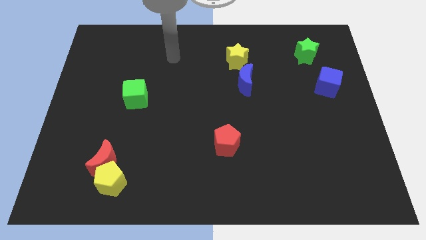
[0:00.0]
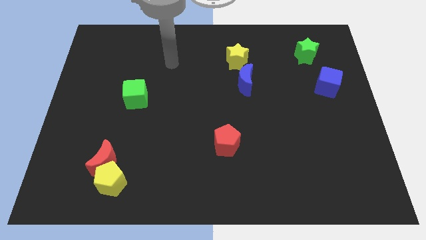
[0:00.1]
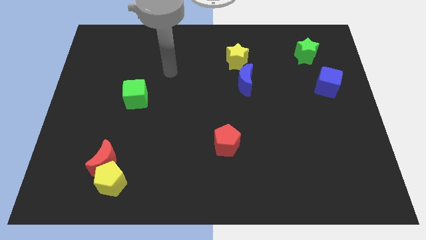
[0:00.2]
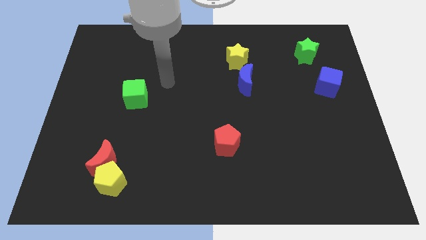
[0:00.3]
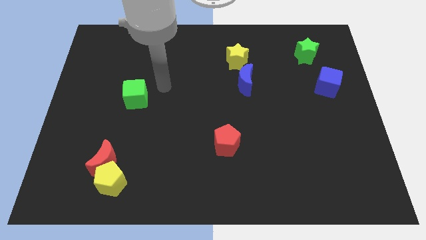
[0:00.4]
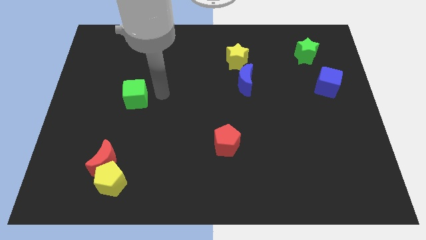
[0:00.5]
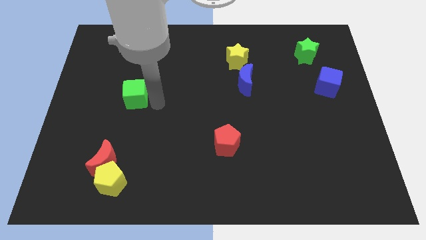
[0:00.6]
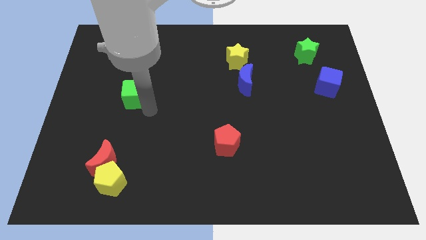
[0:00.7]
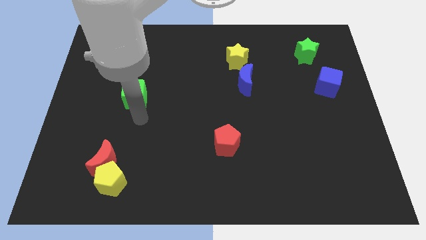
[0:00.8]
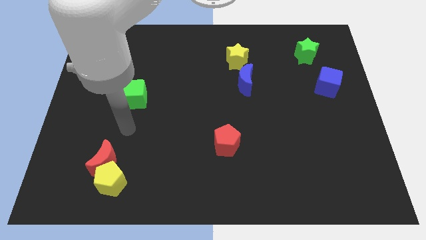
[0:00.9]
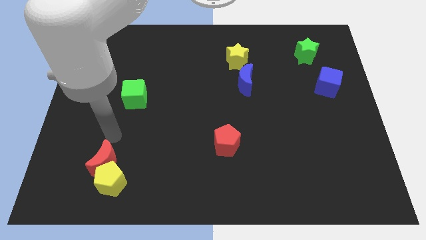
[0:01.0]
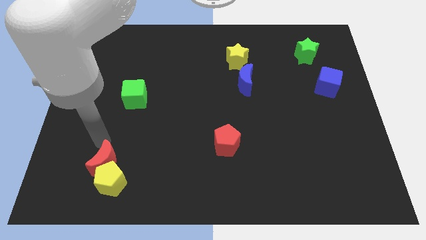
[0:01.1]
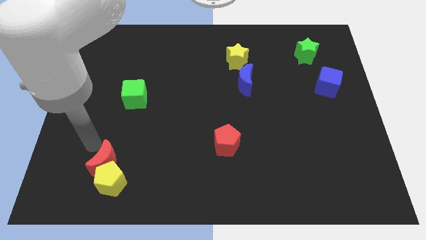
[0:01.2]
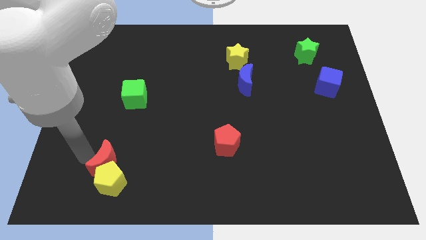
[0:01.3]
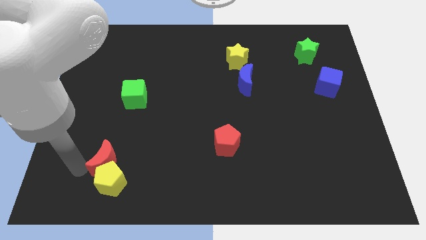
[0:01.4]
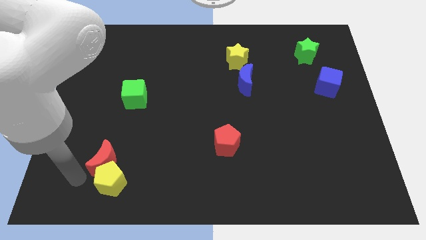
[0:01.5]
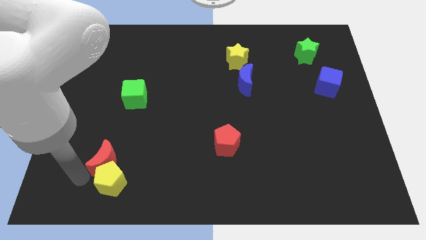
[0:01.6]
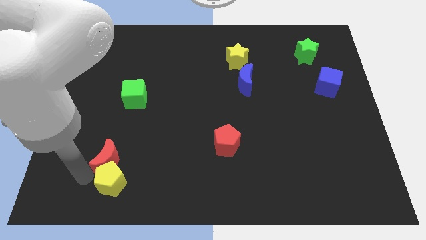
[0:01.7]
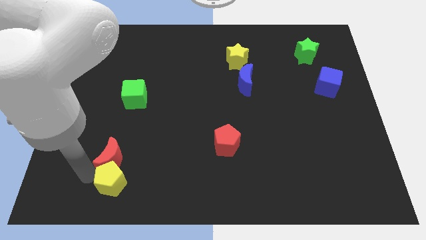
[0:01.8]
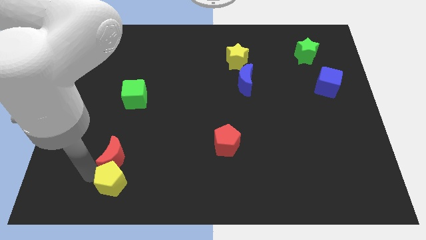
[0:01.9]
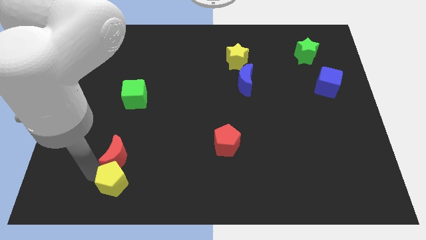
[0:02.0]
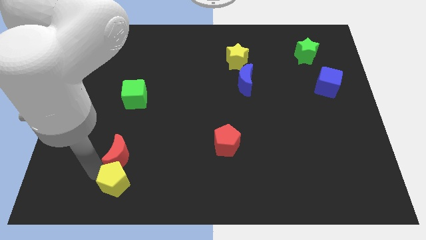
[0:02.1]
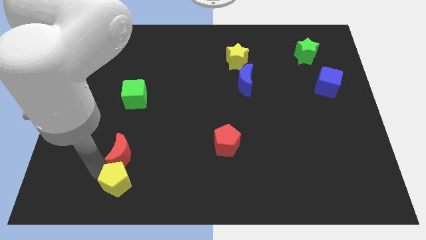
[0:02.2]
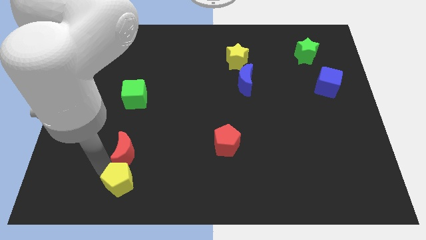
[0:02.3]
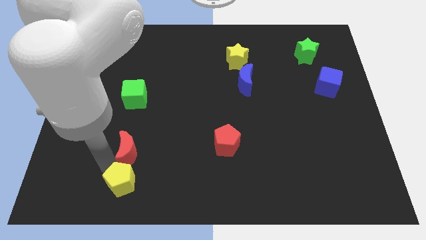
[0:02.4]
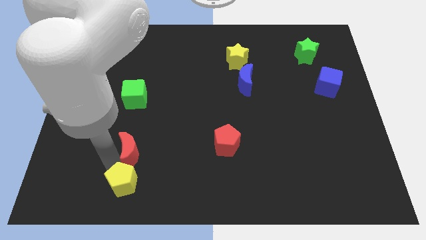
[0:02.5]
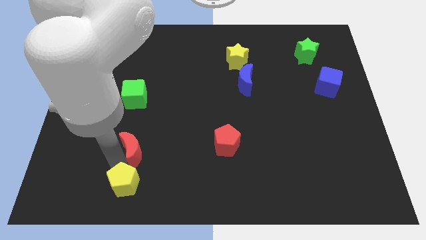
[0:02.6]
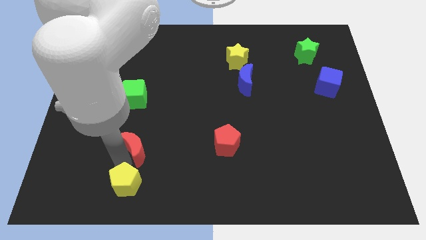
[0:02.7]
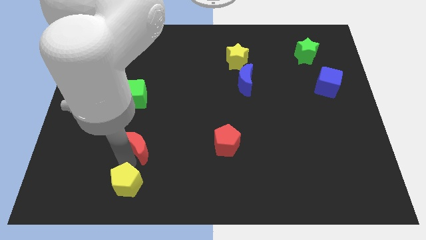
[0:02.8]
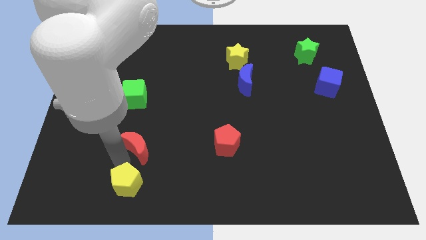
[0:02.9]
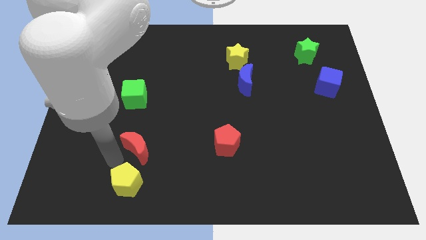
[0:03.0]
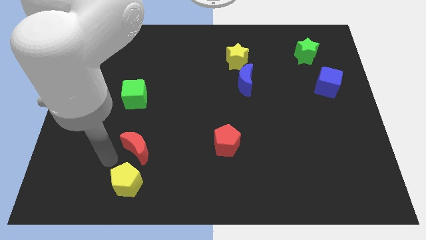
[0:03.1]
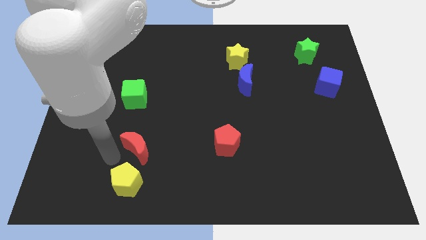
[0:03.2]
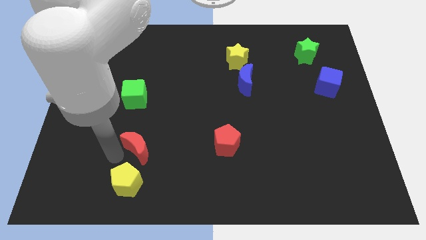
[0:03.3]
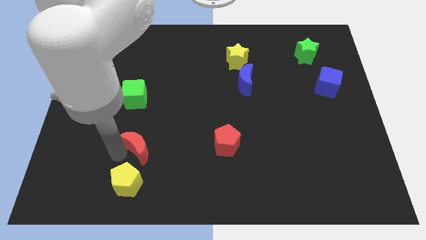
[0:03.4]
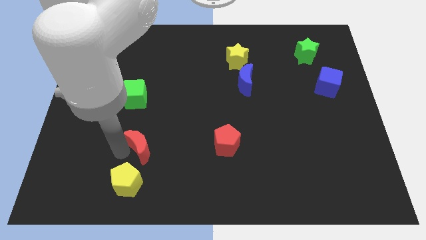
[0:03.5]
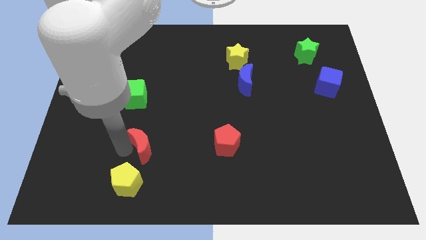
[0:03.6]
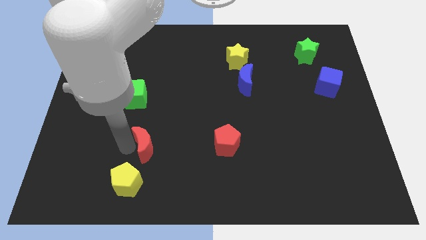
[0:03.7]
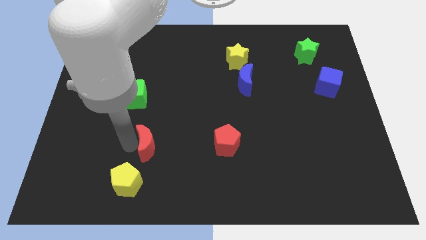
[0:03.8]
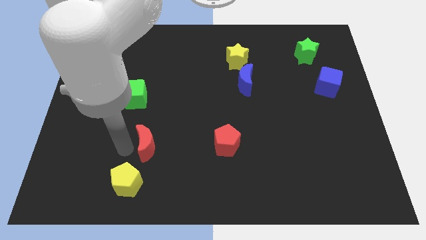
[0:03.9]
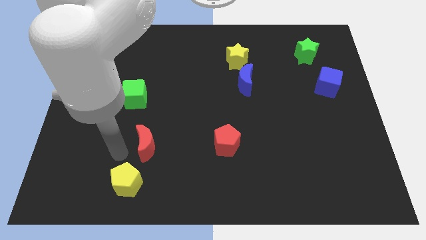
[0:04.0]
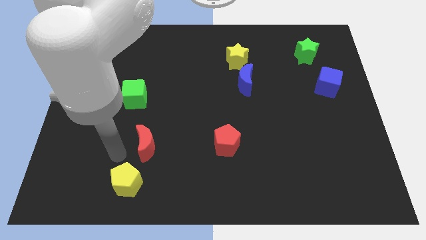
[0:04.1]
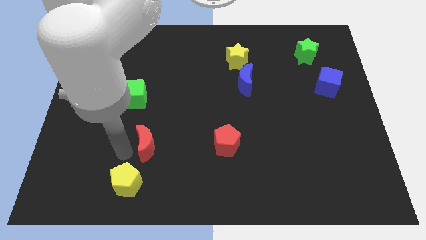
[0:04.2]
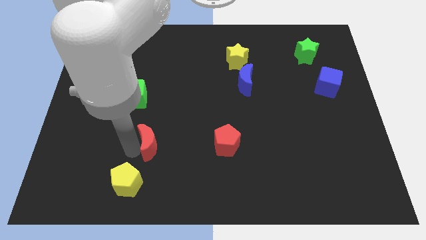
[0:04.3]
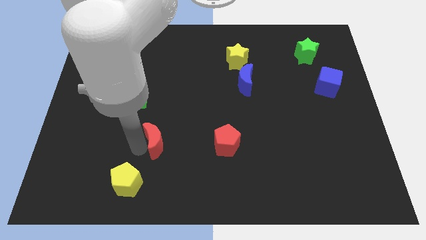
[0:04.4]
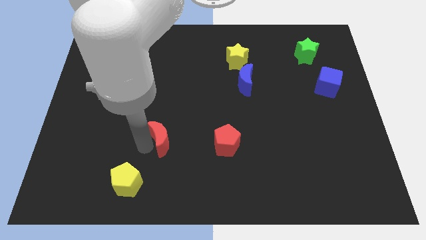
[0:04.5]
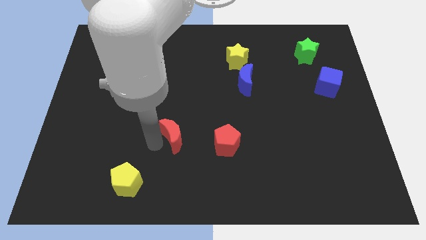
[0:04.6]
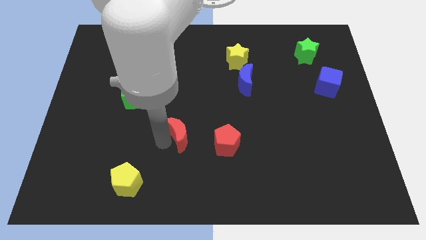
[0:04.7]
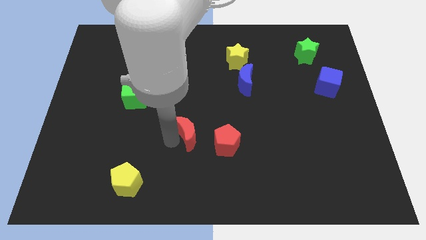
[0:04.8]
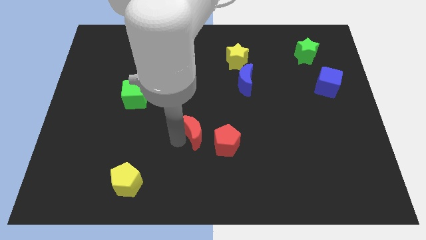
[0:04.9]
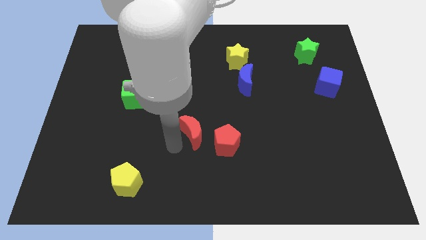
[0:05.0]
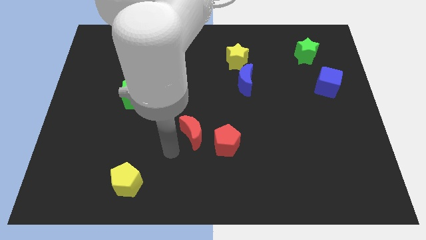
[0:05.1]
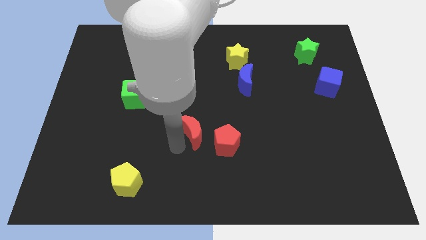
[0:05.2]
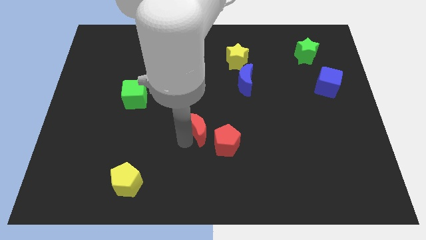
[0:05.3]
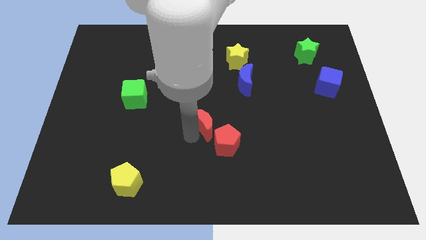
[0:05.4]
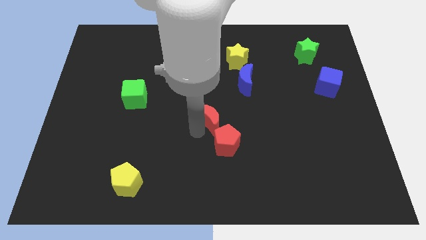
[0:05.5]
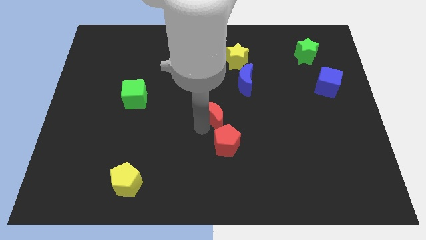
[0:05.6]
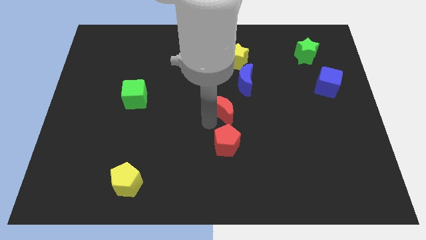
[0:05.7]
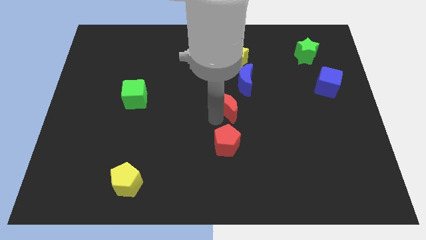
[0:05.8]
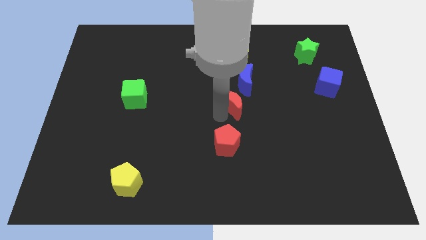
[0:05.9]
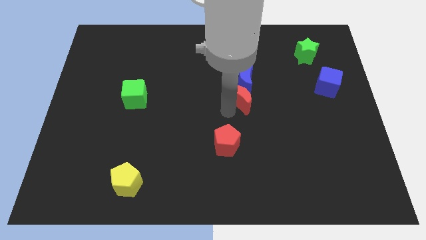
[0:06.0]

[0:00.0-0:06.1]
slide the red moon next to the blue moon

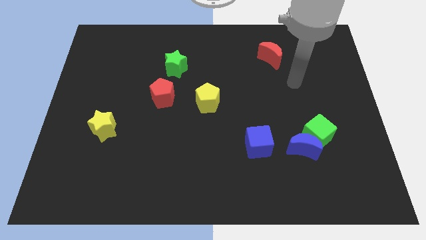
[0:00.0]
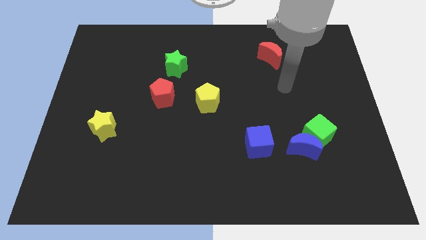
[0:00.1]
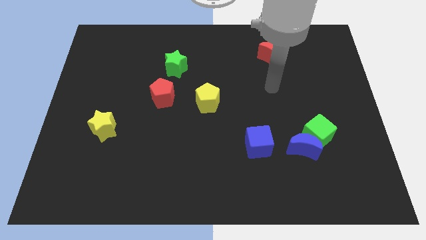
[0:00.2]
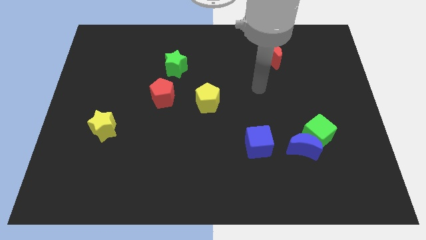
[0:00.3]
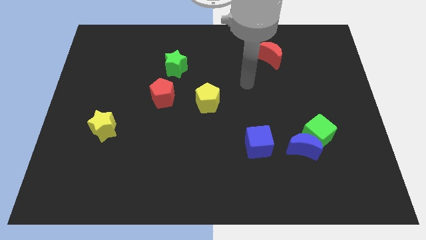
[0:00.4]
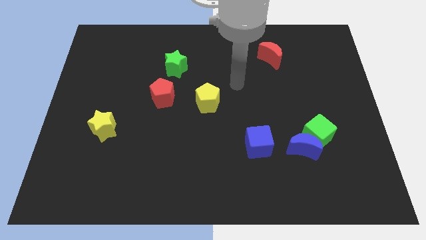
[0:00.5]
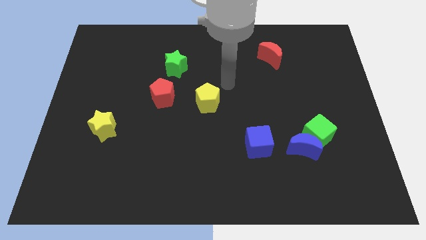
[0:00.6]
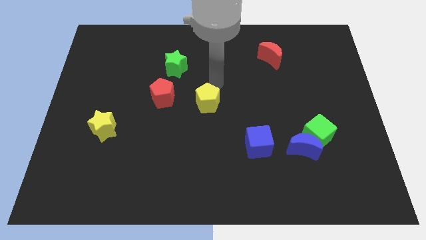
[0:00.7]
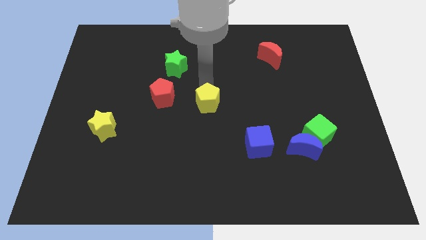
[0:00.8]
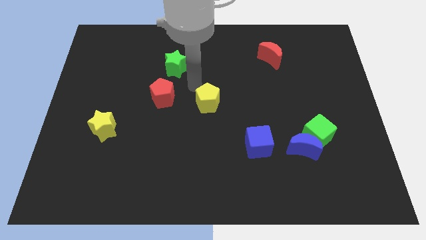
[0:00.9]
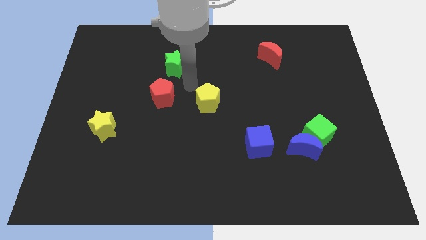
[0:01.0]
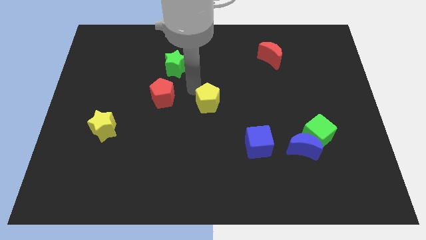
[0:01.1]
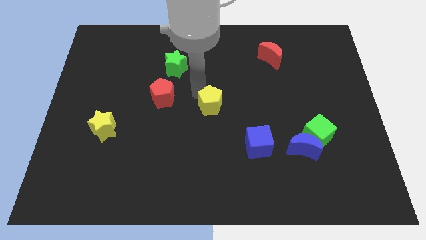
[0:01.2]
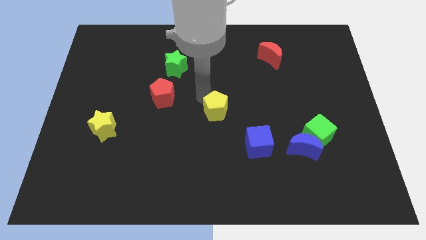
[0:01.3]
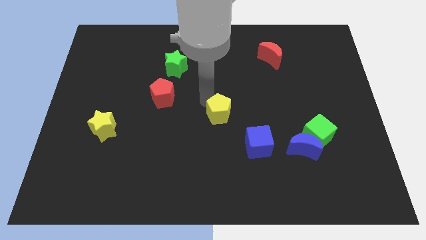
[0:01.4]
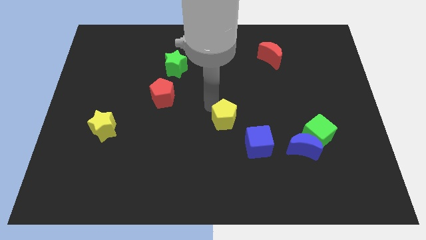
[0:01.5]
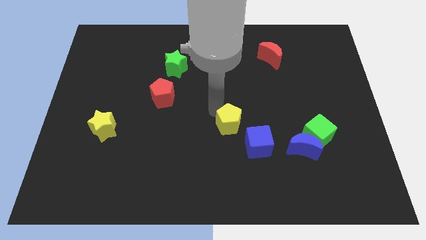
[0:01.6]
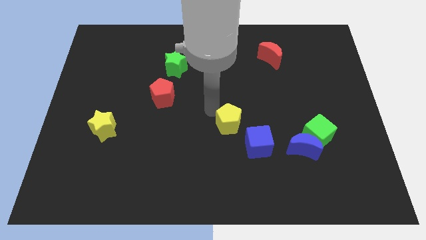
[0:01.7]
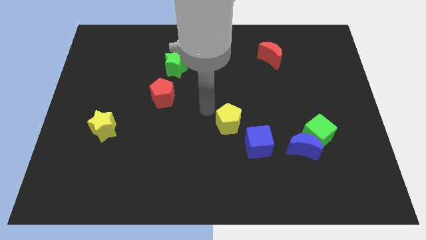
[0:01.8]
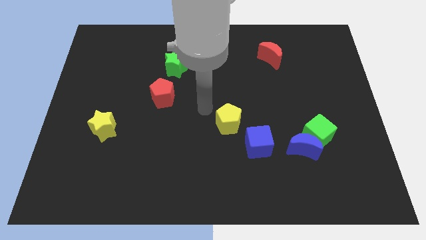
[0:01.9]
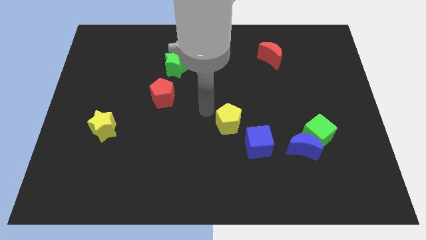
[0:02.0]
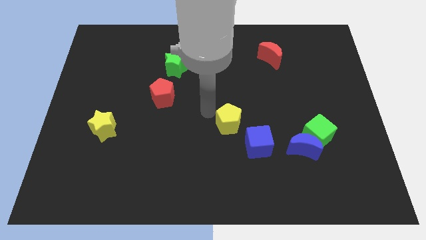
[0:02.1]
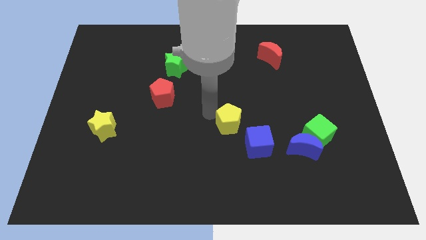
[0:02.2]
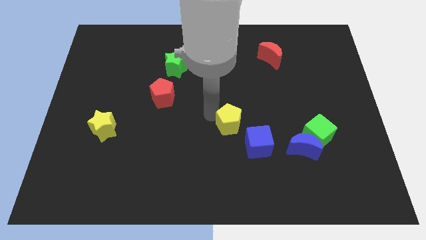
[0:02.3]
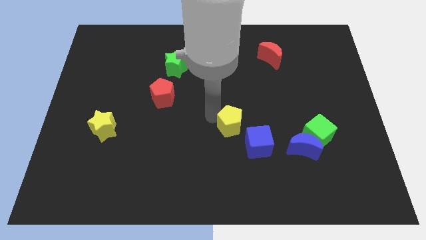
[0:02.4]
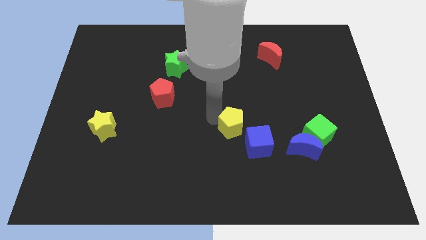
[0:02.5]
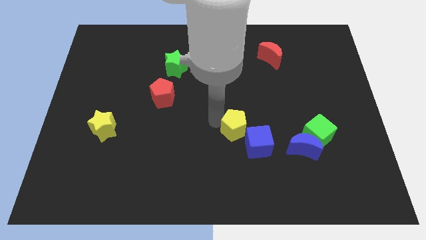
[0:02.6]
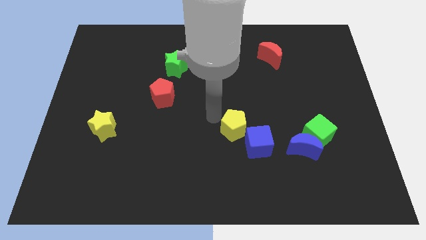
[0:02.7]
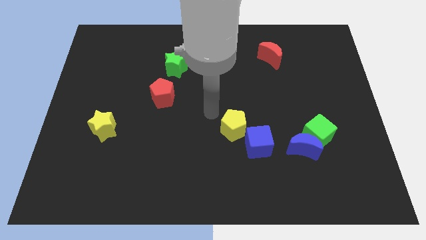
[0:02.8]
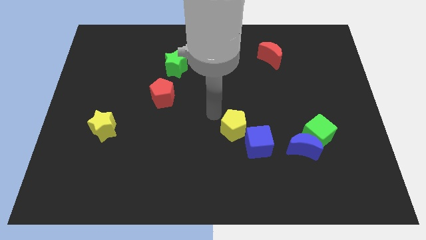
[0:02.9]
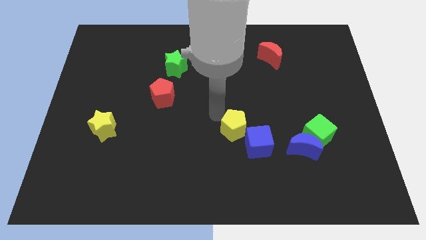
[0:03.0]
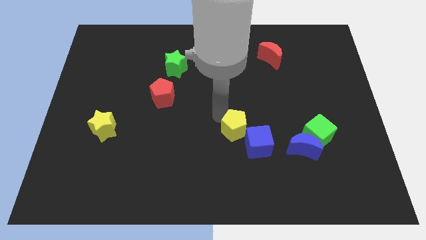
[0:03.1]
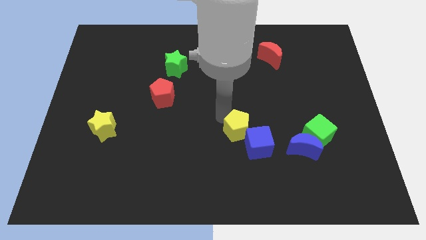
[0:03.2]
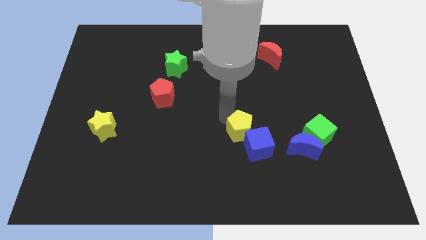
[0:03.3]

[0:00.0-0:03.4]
slide the yellow pentagon close to the blue cube
